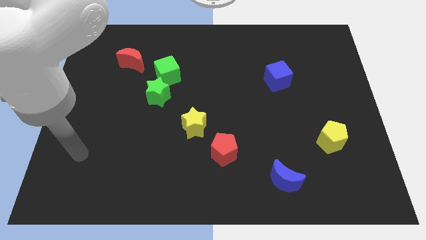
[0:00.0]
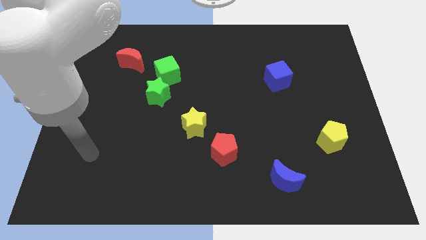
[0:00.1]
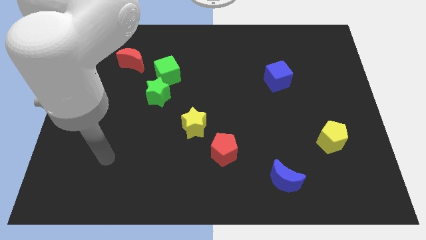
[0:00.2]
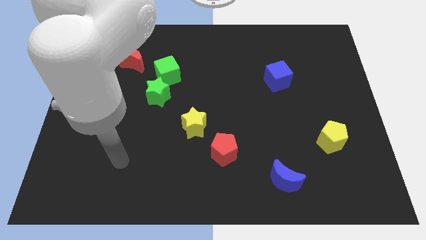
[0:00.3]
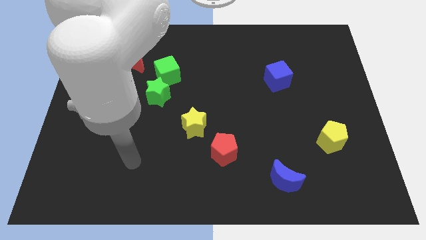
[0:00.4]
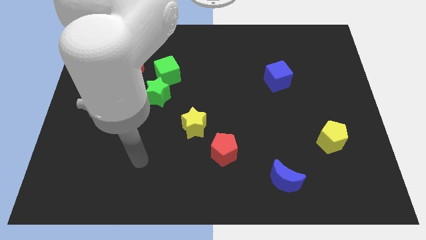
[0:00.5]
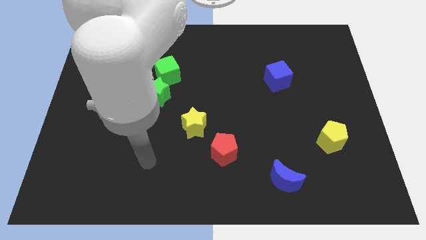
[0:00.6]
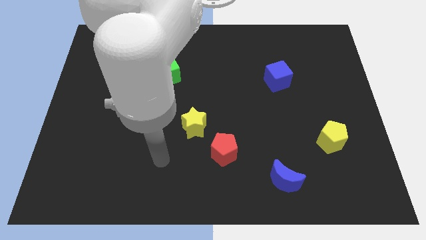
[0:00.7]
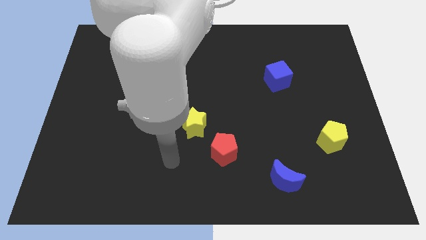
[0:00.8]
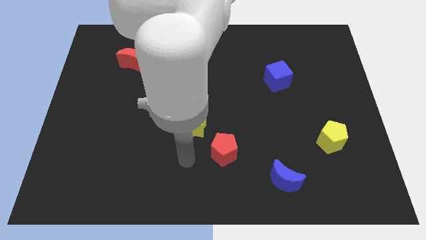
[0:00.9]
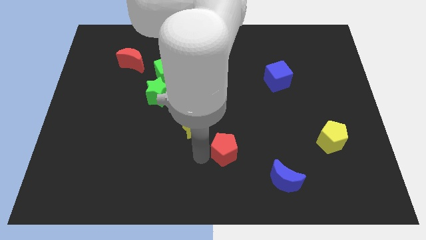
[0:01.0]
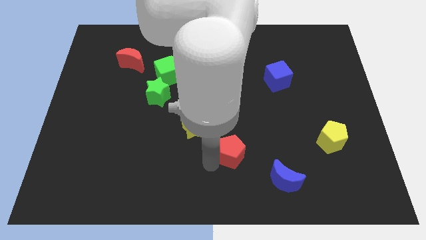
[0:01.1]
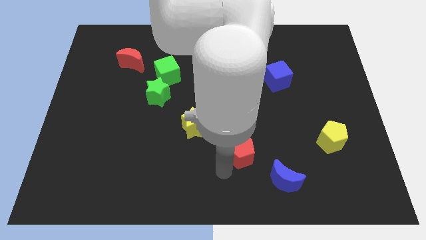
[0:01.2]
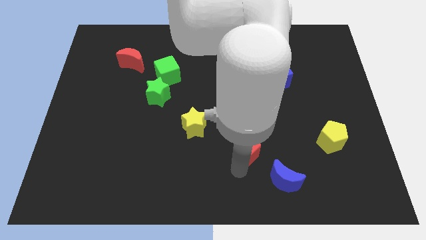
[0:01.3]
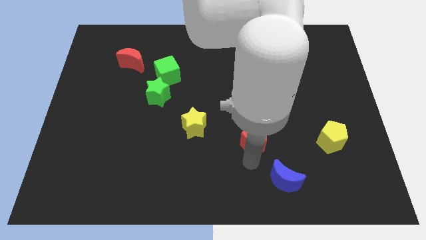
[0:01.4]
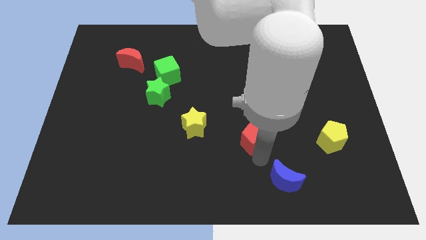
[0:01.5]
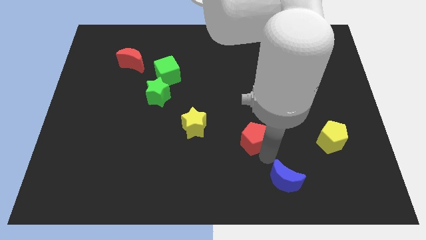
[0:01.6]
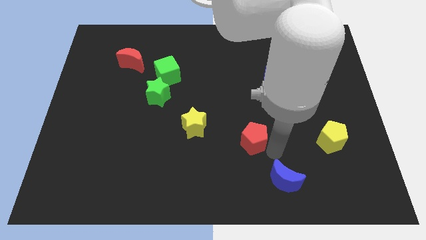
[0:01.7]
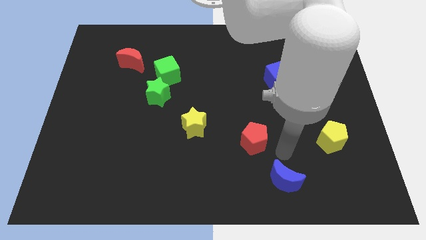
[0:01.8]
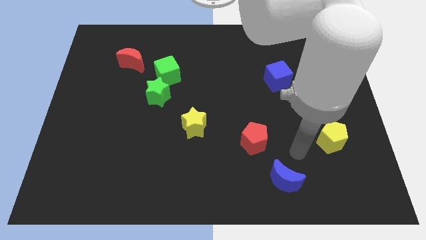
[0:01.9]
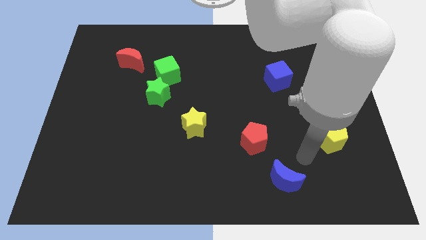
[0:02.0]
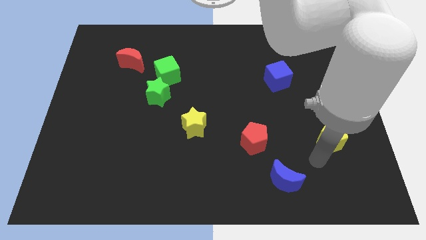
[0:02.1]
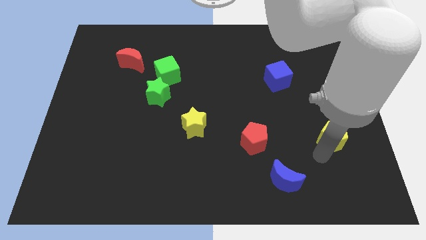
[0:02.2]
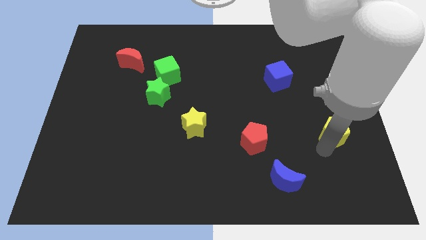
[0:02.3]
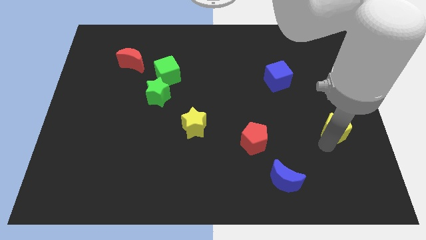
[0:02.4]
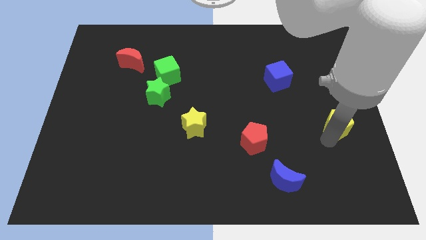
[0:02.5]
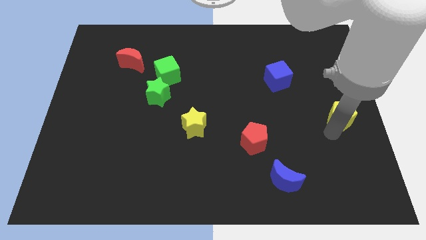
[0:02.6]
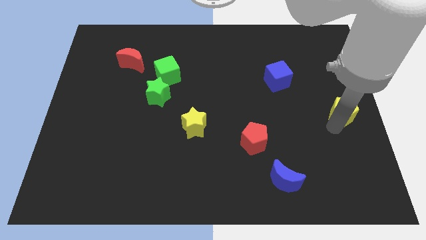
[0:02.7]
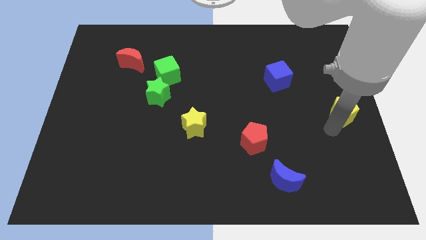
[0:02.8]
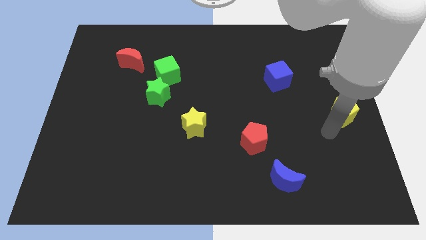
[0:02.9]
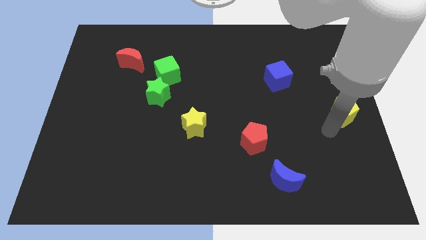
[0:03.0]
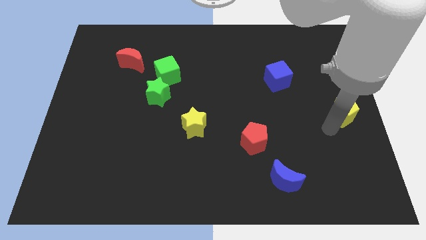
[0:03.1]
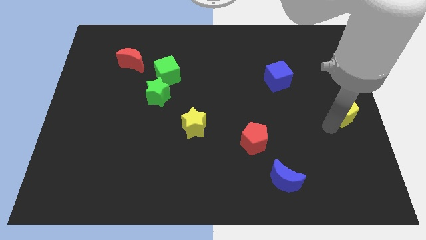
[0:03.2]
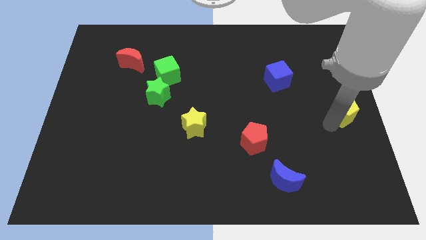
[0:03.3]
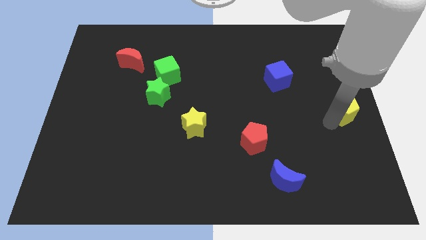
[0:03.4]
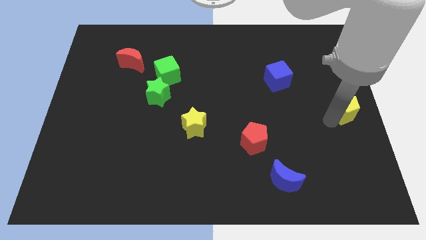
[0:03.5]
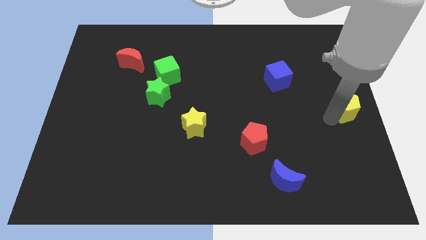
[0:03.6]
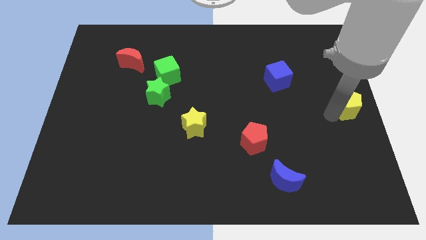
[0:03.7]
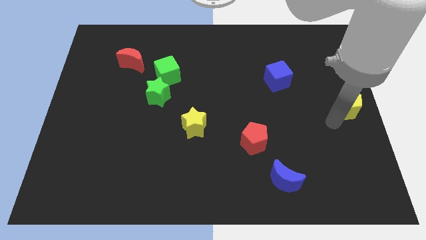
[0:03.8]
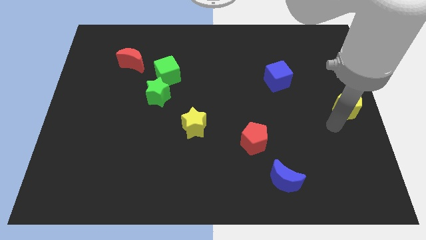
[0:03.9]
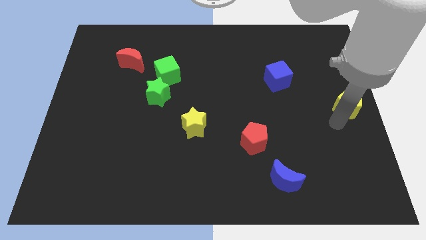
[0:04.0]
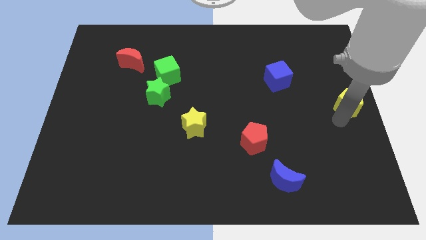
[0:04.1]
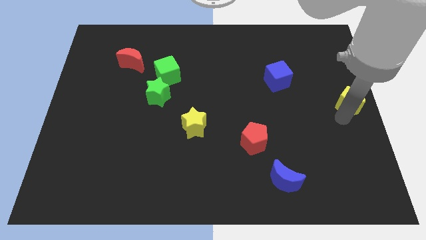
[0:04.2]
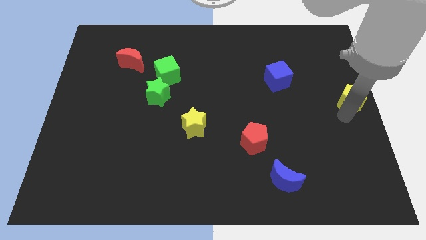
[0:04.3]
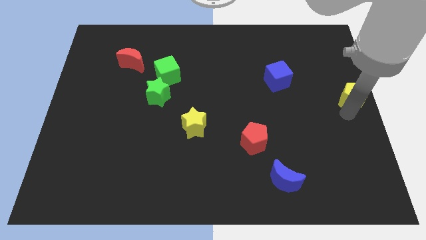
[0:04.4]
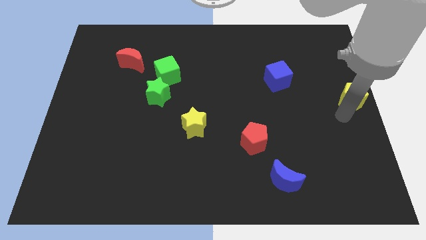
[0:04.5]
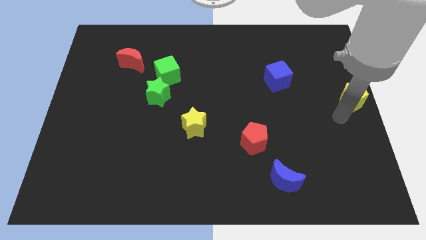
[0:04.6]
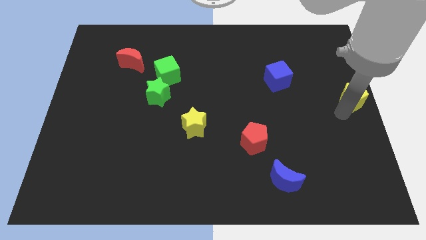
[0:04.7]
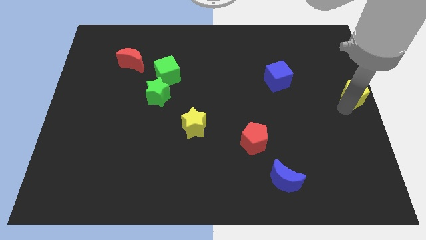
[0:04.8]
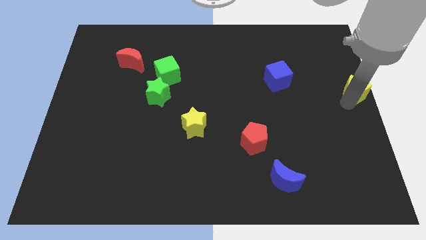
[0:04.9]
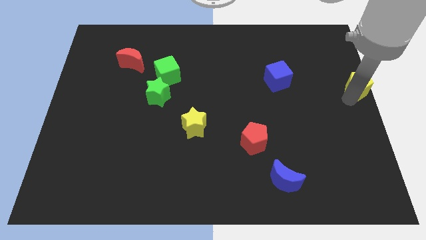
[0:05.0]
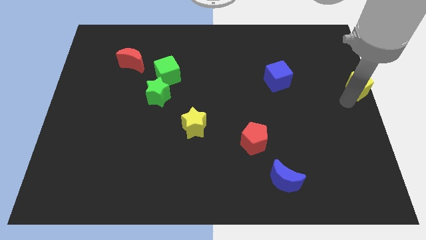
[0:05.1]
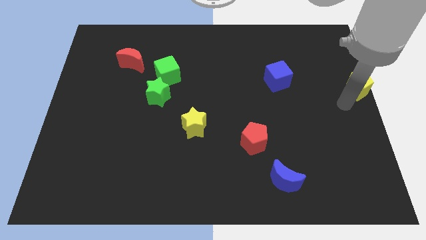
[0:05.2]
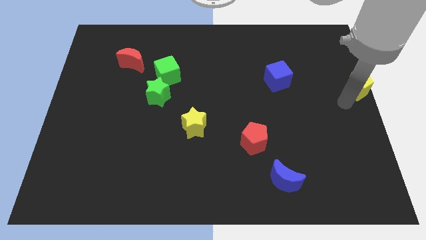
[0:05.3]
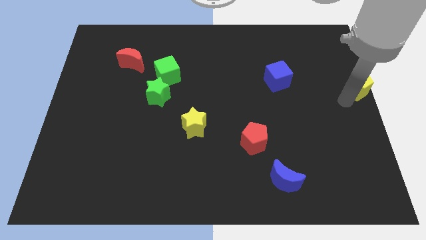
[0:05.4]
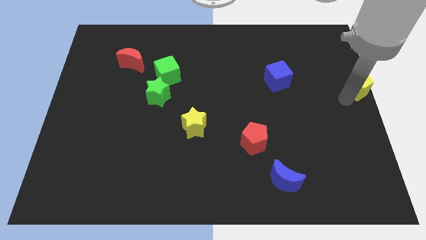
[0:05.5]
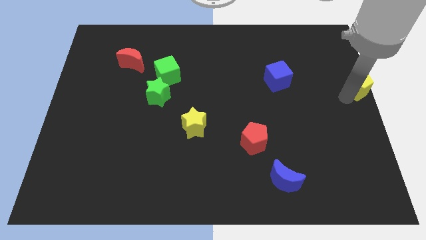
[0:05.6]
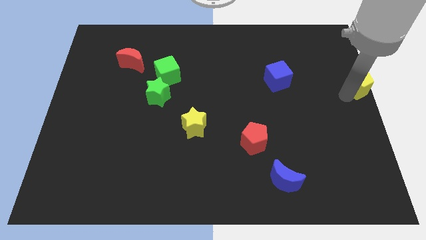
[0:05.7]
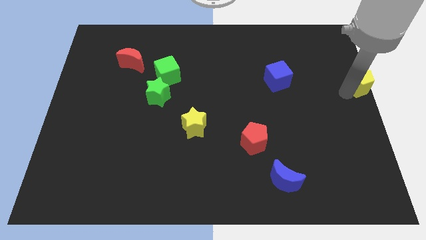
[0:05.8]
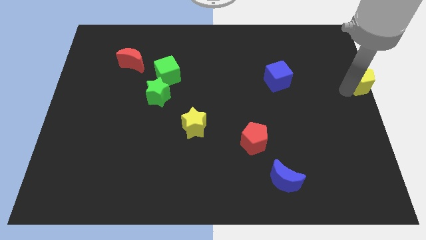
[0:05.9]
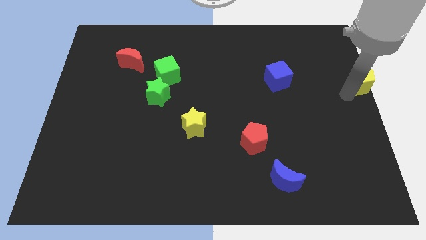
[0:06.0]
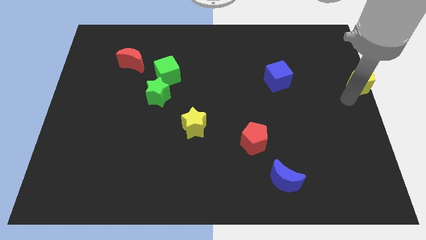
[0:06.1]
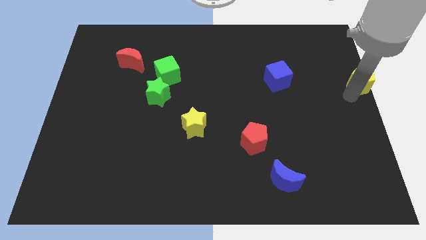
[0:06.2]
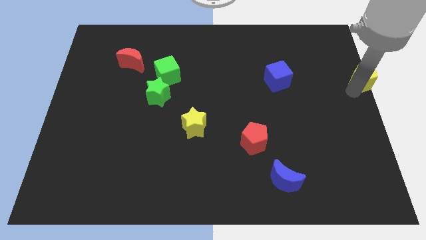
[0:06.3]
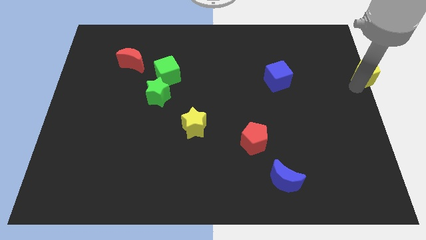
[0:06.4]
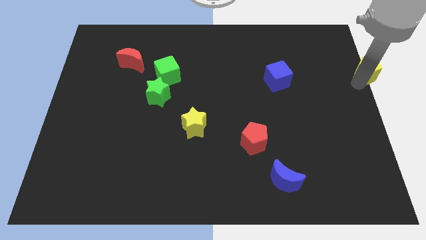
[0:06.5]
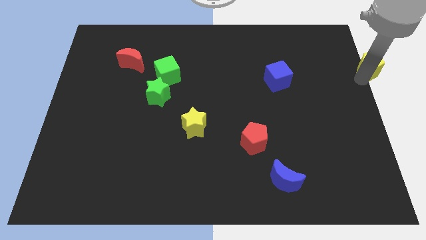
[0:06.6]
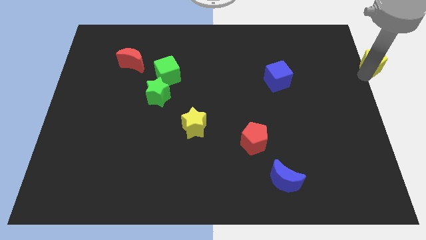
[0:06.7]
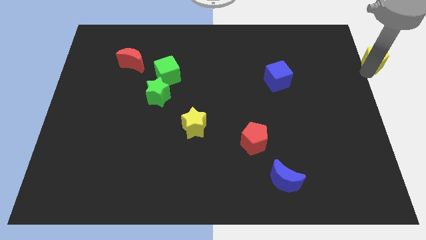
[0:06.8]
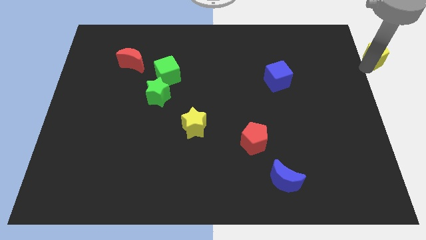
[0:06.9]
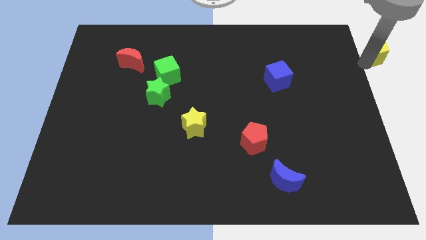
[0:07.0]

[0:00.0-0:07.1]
put the yellow pentagon to the top right

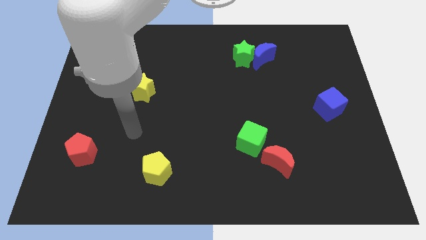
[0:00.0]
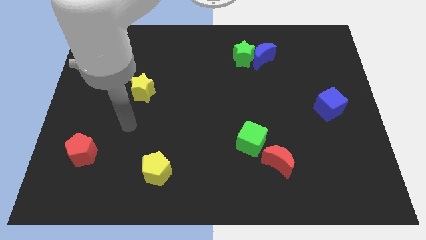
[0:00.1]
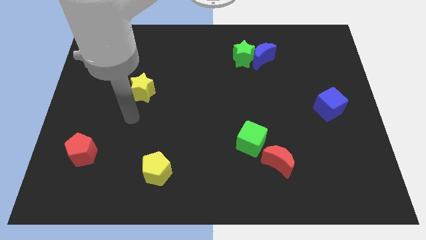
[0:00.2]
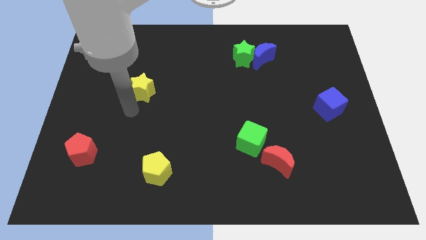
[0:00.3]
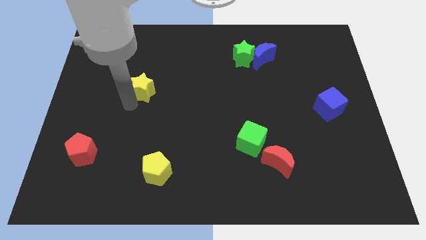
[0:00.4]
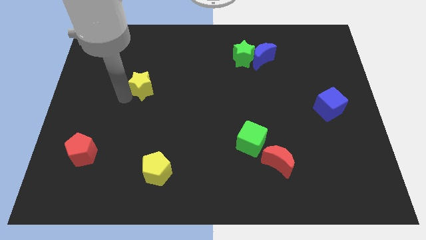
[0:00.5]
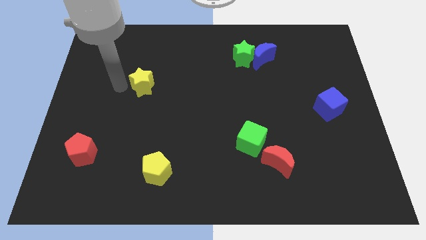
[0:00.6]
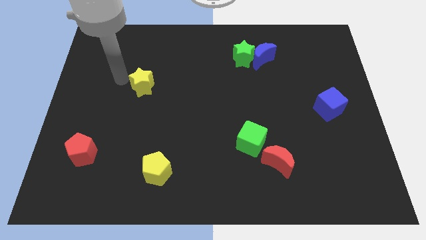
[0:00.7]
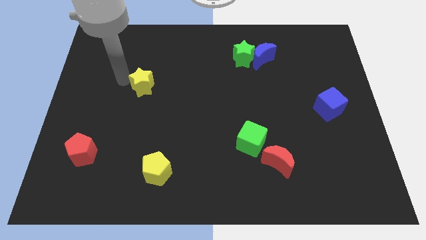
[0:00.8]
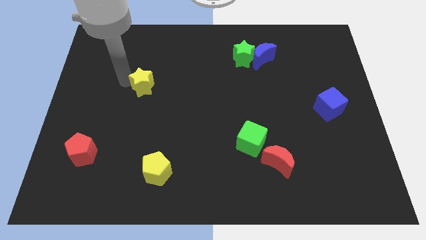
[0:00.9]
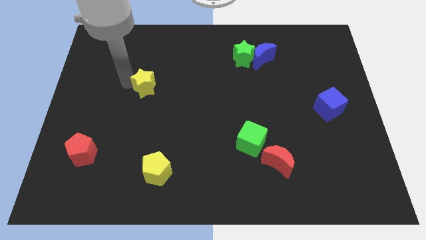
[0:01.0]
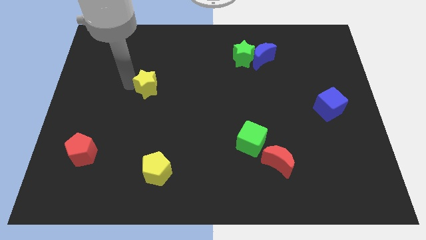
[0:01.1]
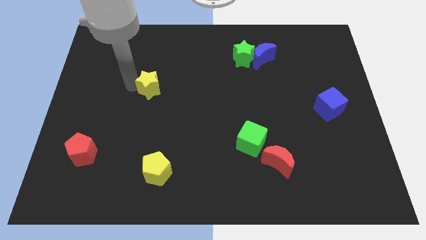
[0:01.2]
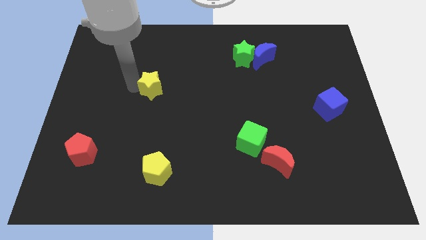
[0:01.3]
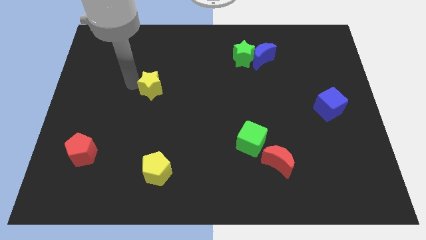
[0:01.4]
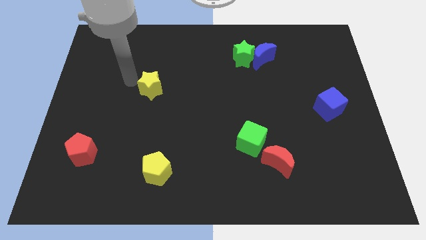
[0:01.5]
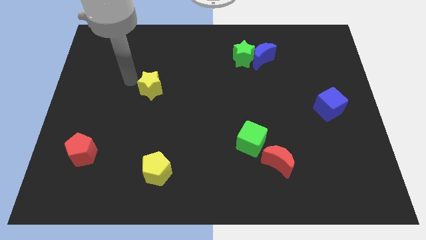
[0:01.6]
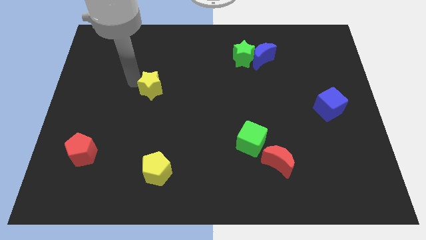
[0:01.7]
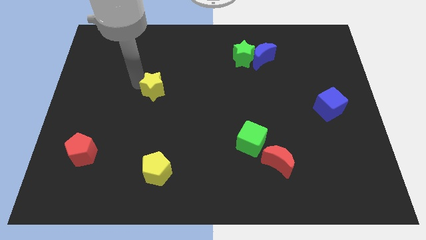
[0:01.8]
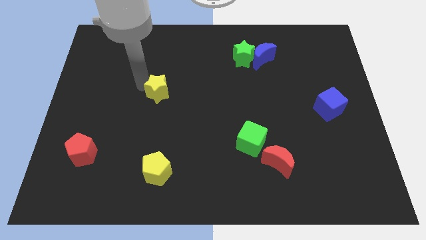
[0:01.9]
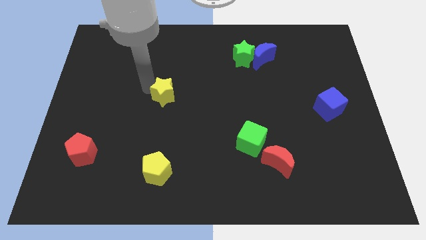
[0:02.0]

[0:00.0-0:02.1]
put the yellow star to the middle of the board
